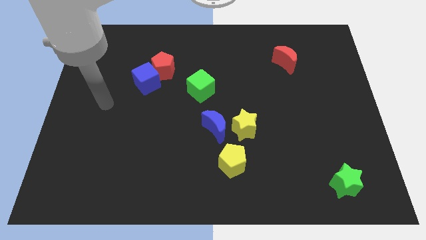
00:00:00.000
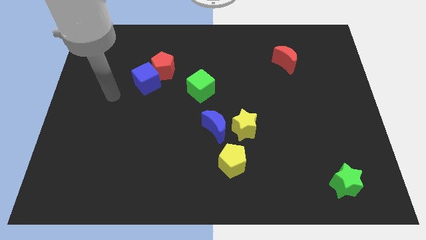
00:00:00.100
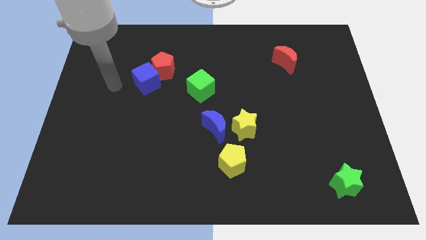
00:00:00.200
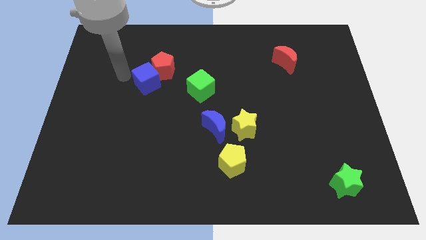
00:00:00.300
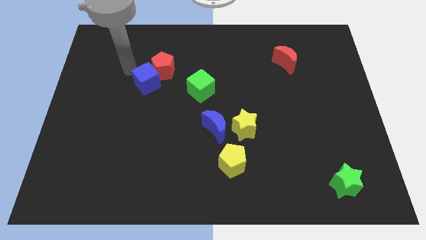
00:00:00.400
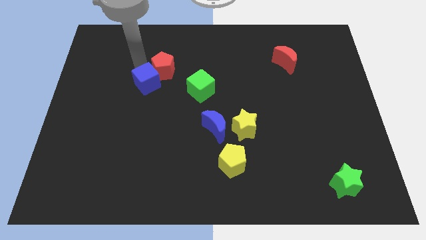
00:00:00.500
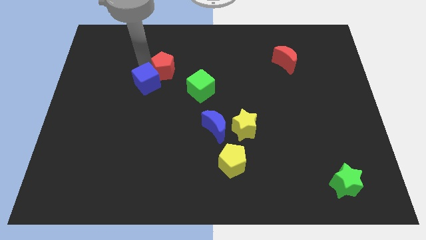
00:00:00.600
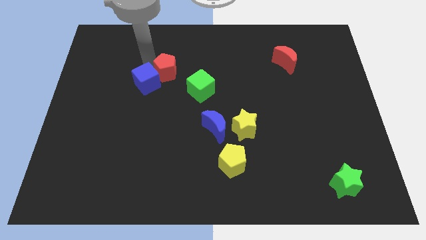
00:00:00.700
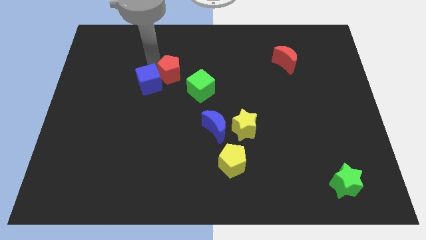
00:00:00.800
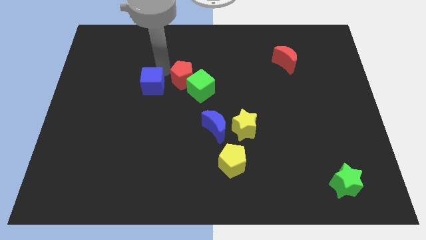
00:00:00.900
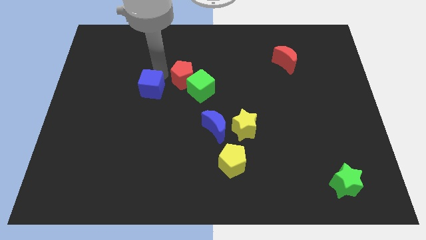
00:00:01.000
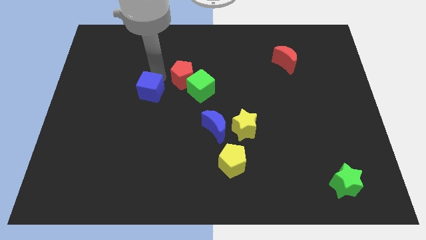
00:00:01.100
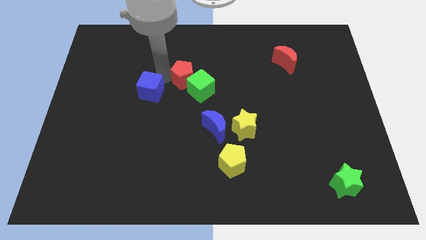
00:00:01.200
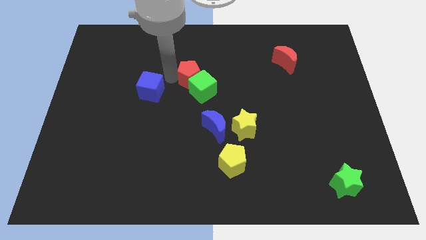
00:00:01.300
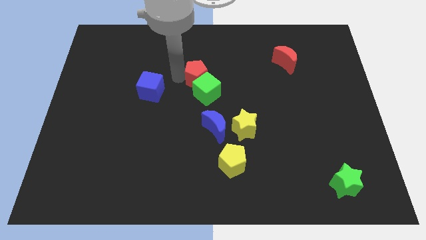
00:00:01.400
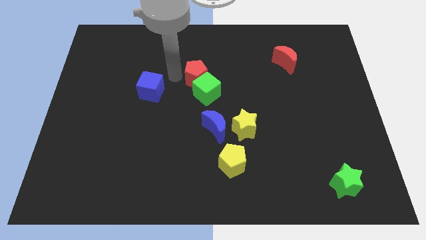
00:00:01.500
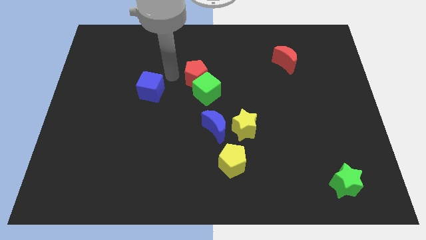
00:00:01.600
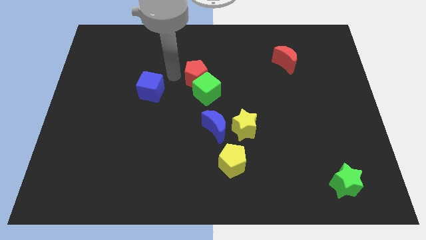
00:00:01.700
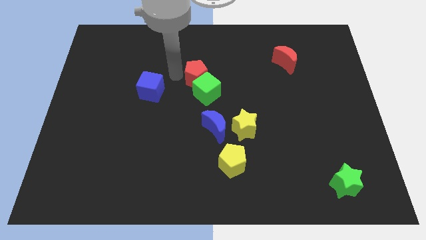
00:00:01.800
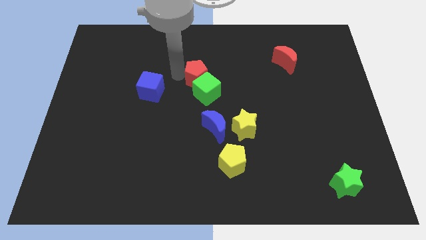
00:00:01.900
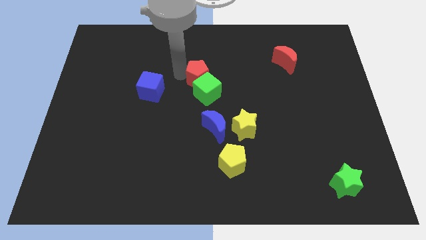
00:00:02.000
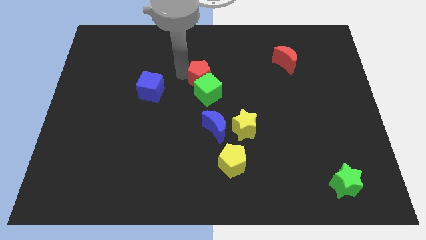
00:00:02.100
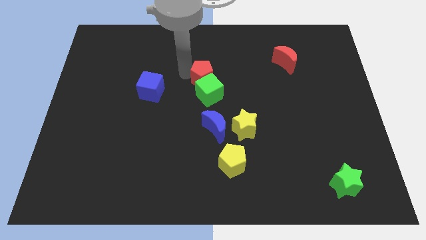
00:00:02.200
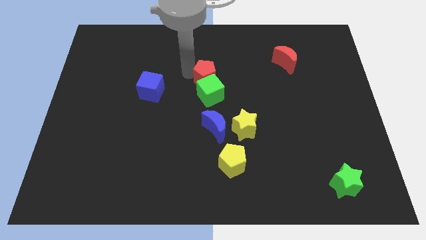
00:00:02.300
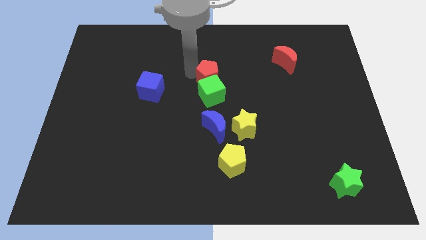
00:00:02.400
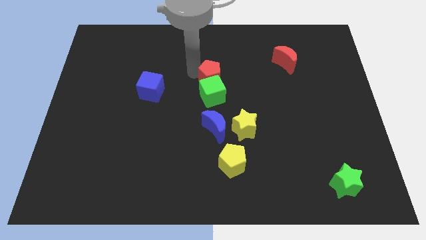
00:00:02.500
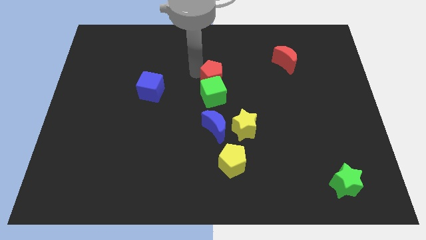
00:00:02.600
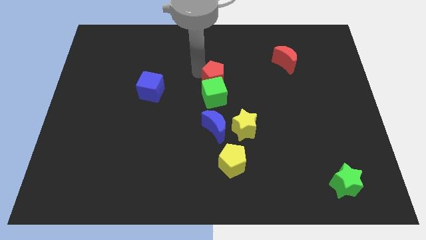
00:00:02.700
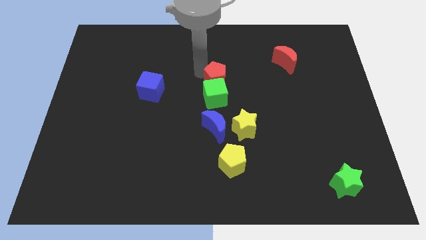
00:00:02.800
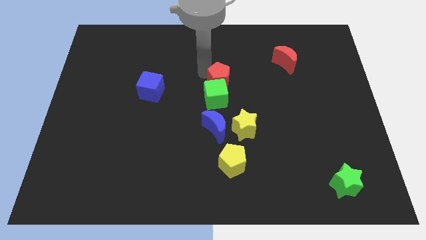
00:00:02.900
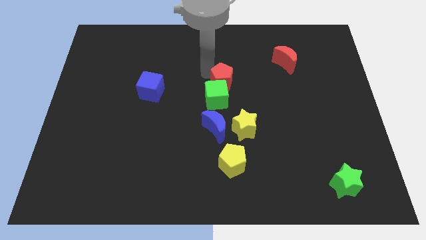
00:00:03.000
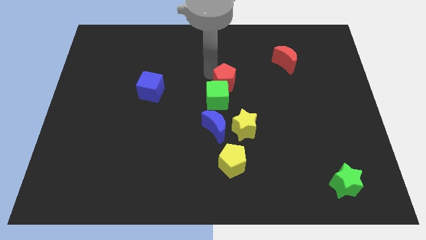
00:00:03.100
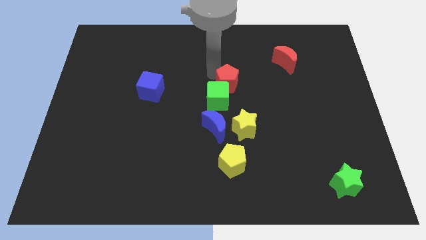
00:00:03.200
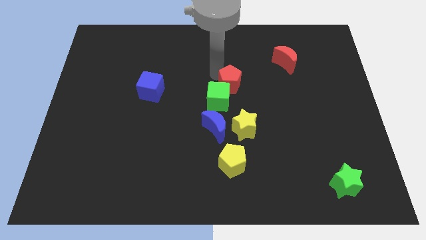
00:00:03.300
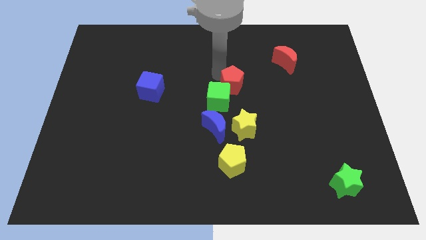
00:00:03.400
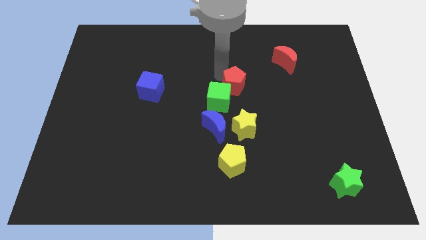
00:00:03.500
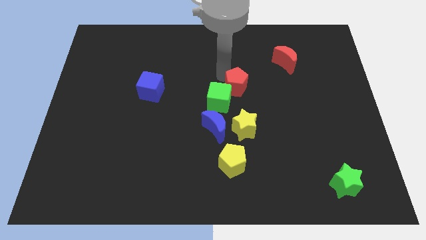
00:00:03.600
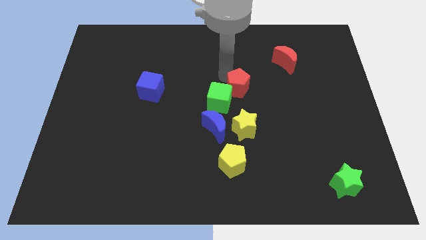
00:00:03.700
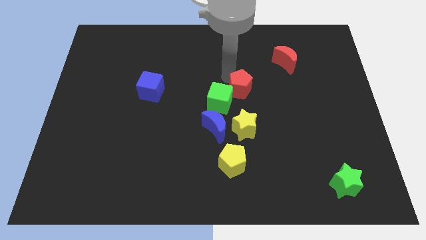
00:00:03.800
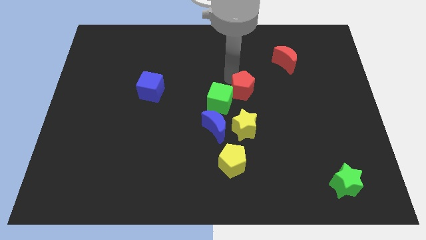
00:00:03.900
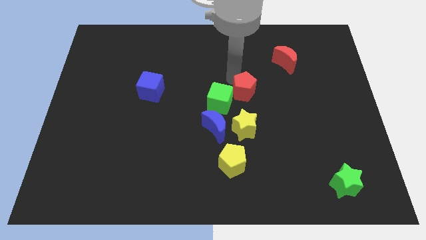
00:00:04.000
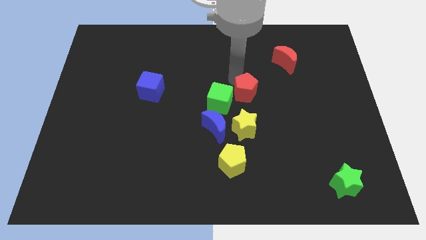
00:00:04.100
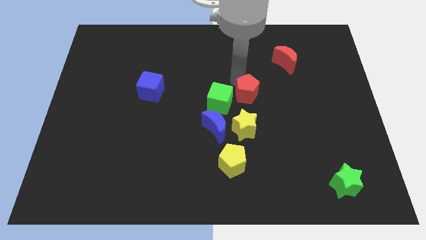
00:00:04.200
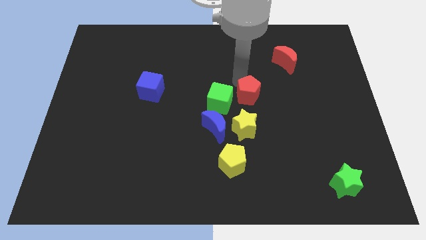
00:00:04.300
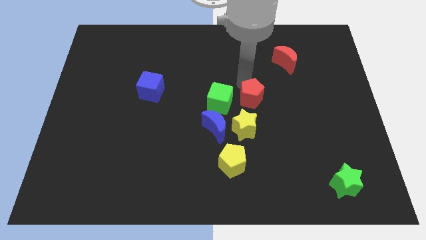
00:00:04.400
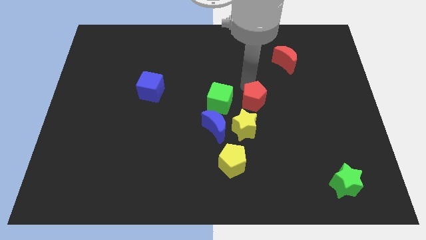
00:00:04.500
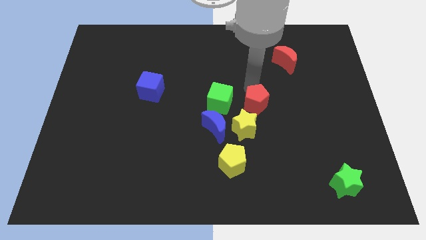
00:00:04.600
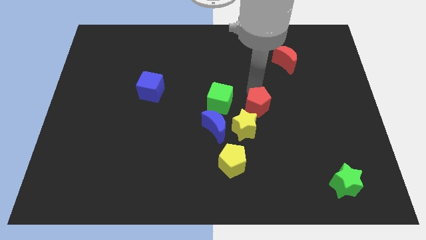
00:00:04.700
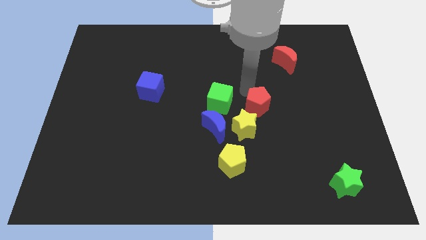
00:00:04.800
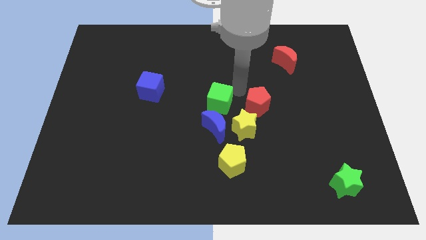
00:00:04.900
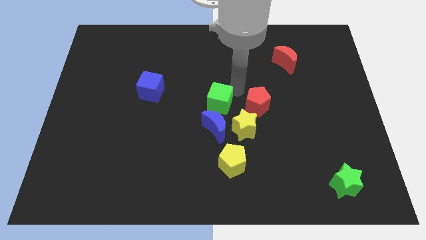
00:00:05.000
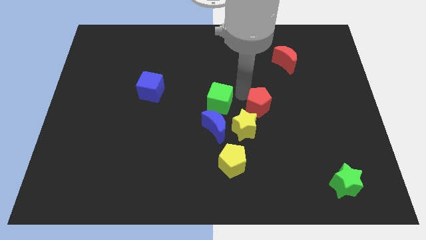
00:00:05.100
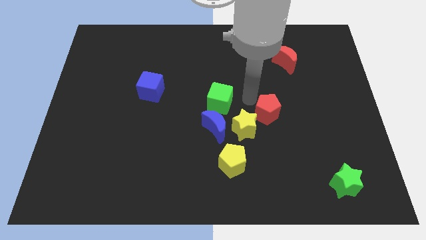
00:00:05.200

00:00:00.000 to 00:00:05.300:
push the red pentagon right of the yellow star

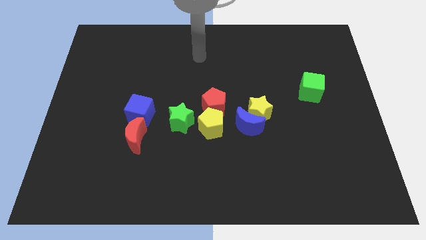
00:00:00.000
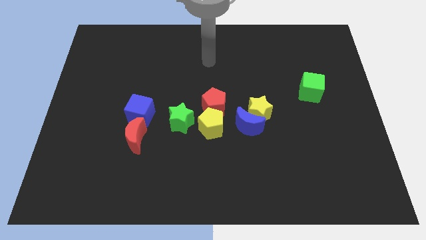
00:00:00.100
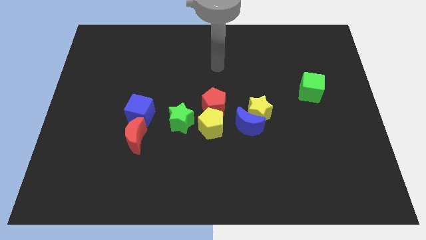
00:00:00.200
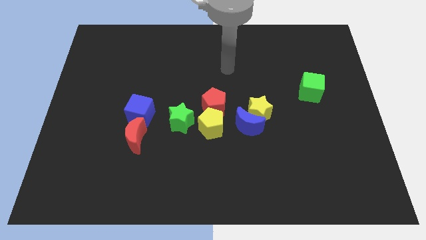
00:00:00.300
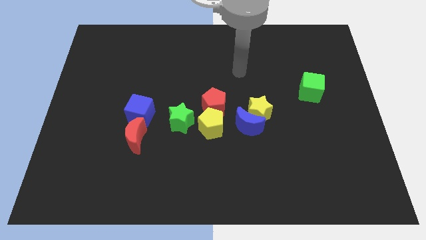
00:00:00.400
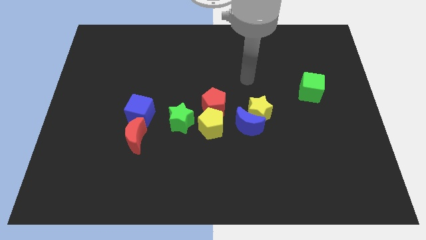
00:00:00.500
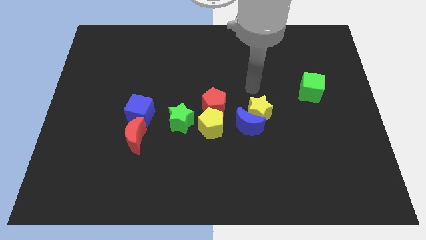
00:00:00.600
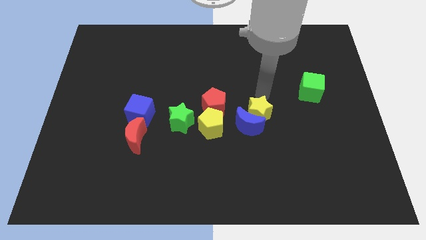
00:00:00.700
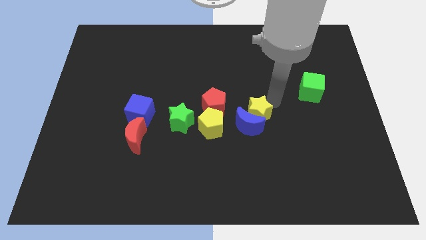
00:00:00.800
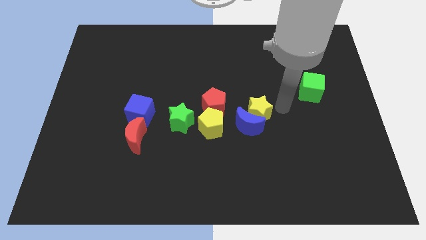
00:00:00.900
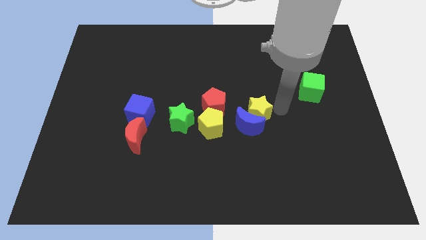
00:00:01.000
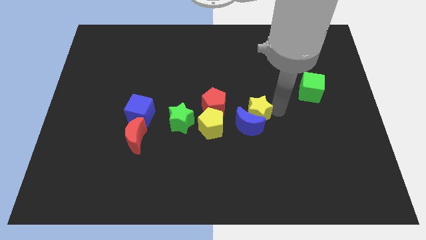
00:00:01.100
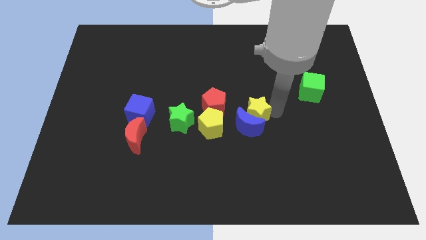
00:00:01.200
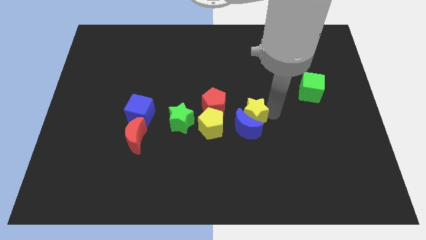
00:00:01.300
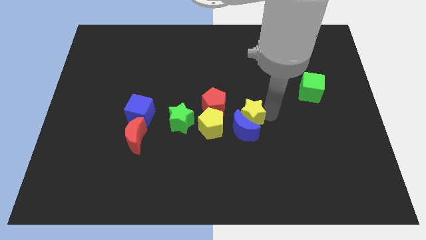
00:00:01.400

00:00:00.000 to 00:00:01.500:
push the yellow star to the right of the green star

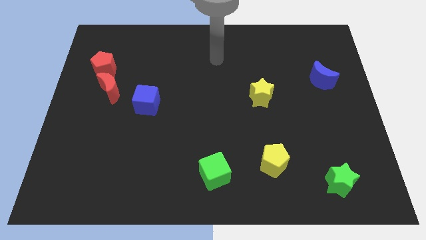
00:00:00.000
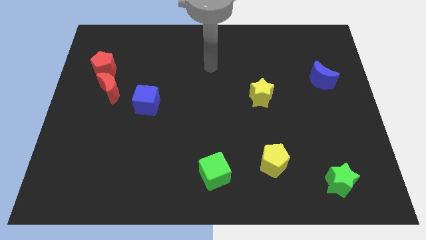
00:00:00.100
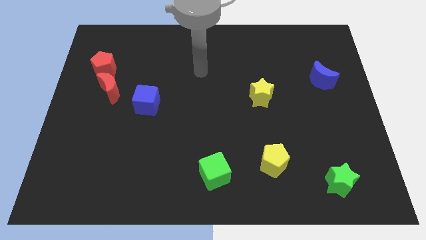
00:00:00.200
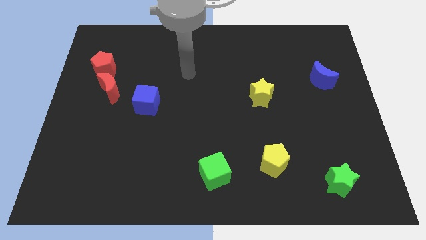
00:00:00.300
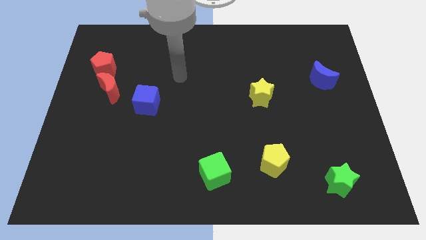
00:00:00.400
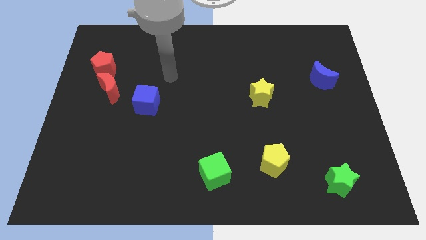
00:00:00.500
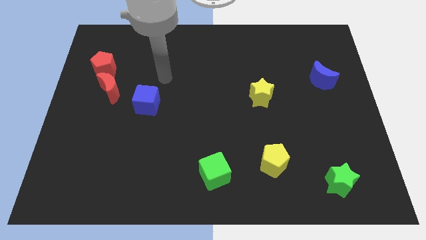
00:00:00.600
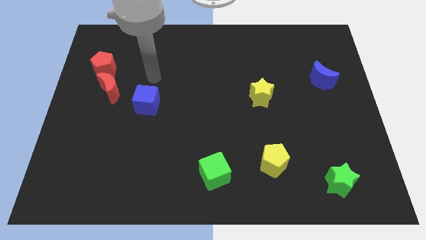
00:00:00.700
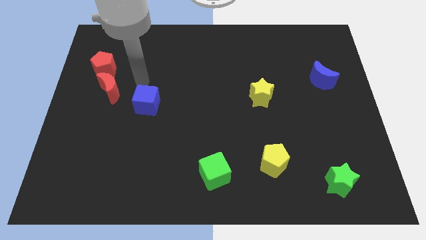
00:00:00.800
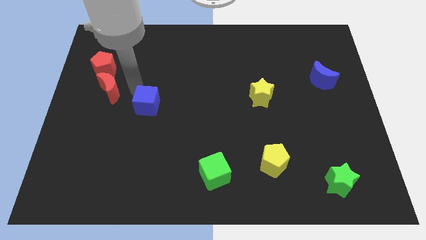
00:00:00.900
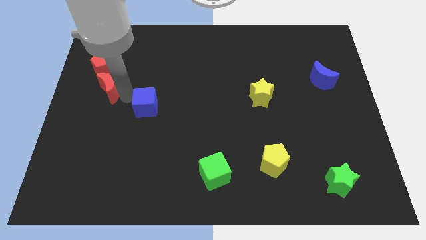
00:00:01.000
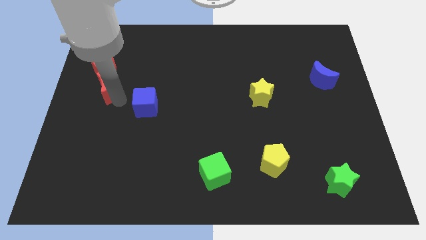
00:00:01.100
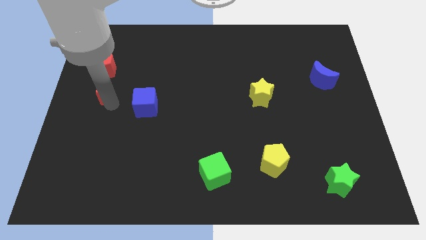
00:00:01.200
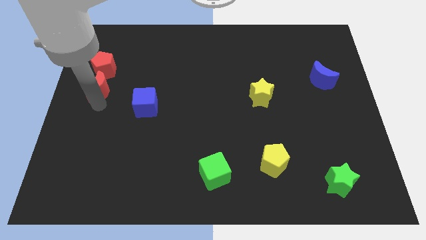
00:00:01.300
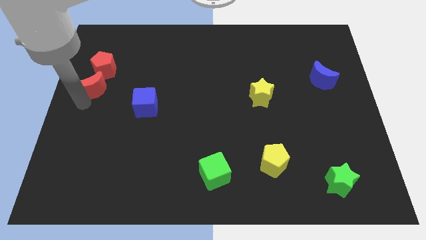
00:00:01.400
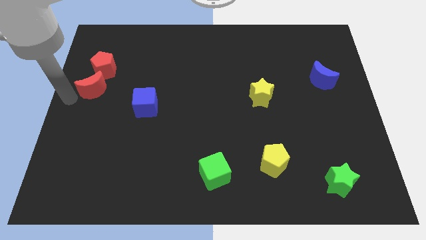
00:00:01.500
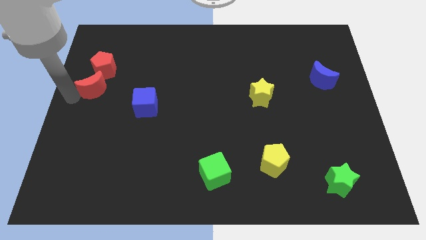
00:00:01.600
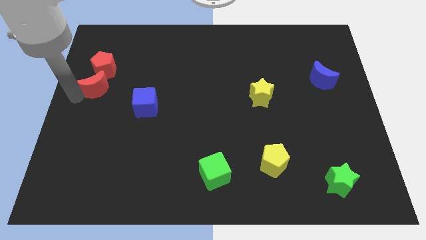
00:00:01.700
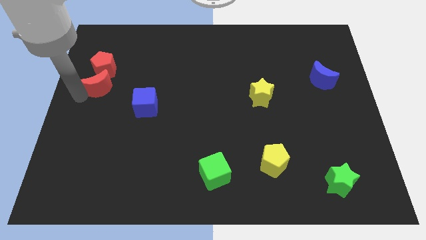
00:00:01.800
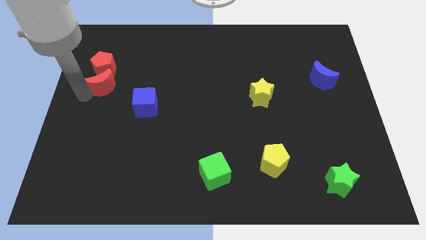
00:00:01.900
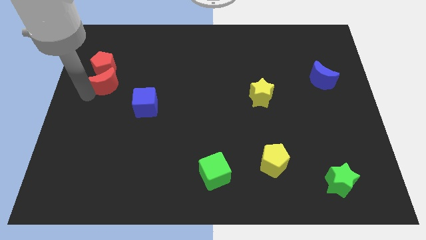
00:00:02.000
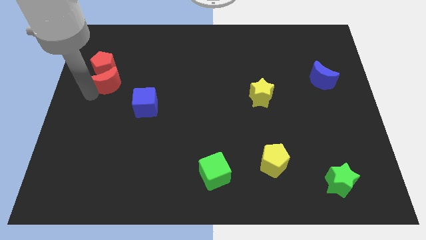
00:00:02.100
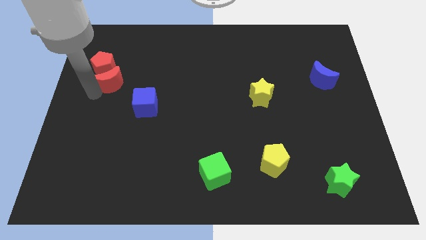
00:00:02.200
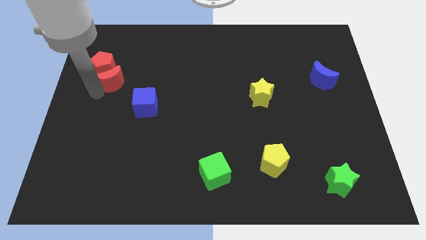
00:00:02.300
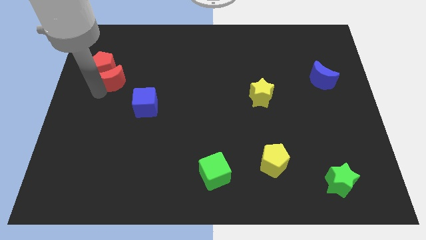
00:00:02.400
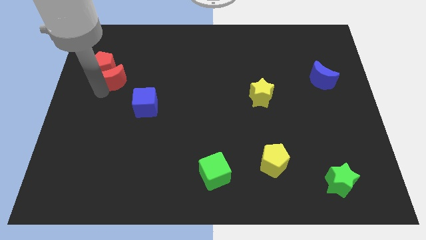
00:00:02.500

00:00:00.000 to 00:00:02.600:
push the red moon to the right of the red pentagon
